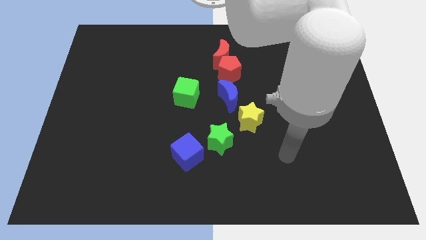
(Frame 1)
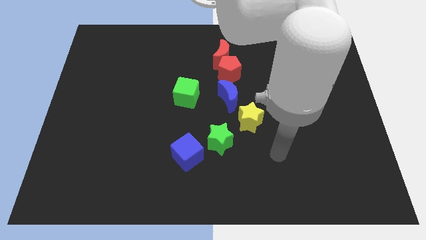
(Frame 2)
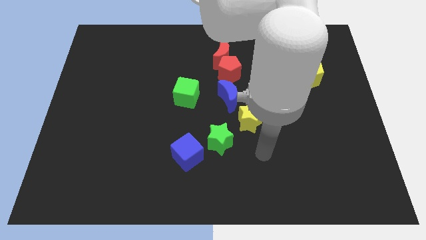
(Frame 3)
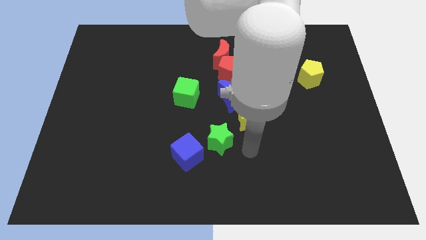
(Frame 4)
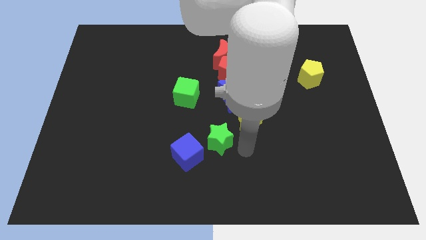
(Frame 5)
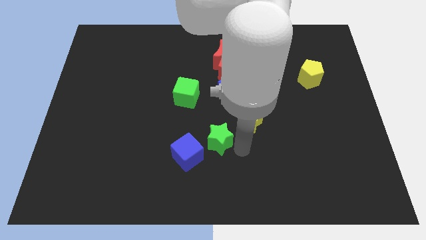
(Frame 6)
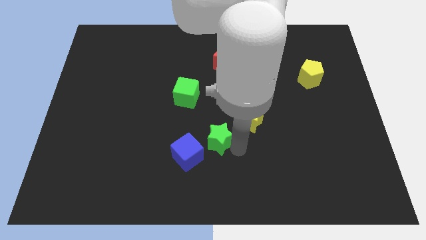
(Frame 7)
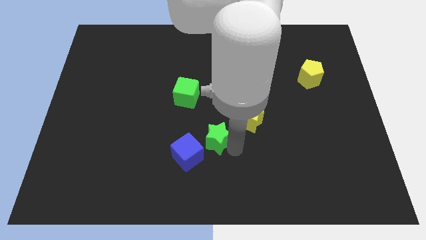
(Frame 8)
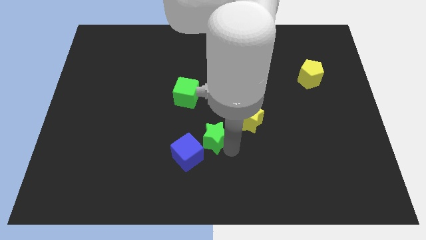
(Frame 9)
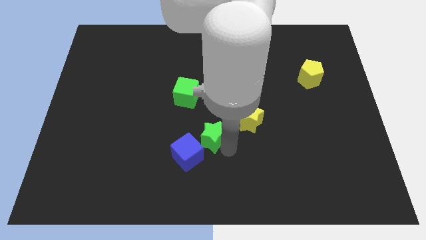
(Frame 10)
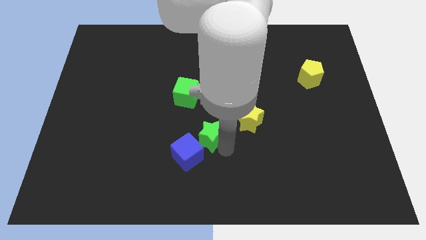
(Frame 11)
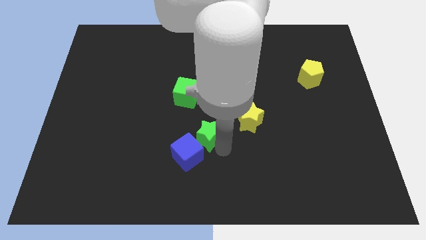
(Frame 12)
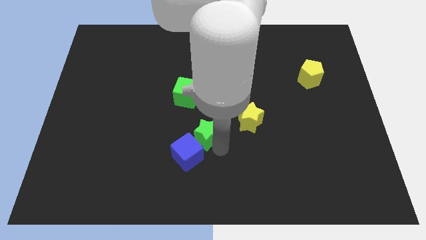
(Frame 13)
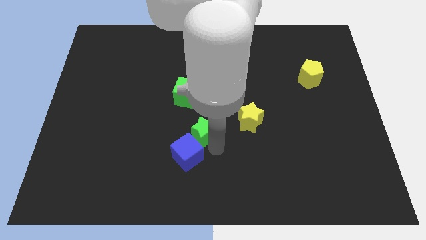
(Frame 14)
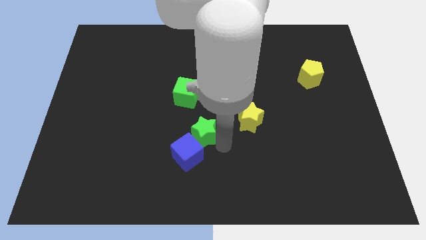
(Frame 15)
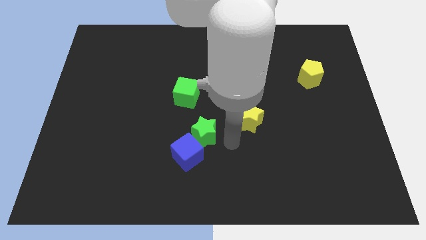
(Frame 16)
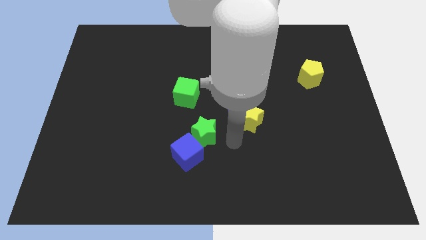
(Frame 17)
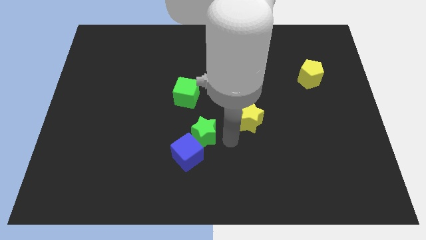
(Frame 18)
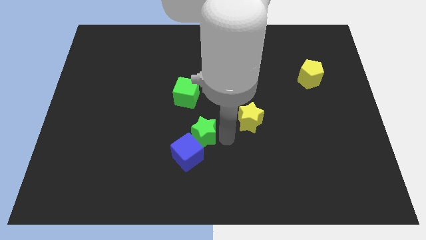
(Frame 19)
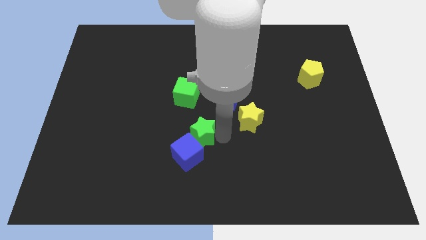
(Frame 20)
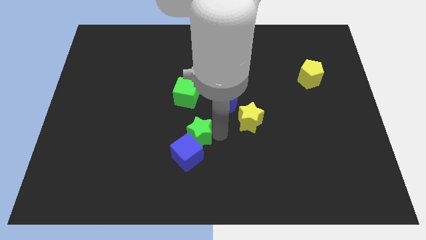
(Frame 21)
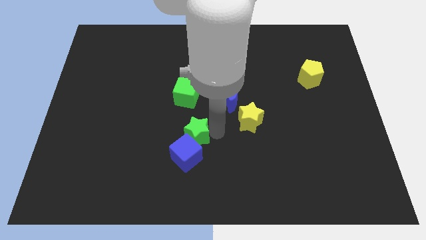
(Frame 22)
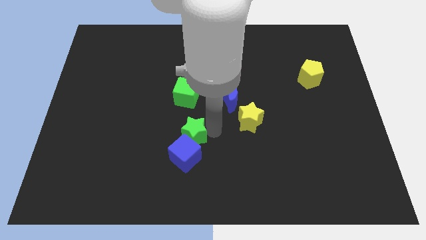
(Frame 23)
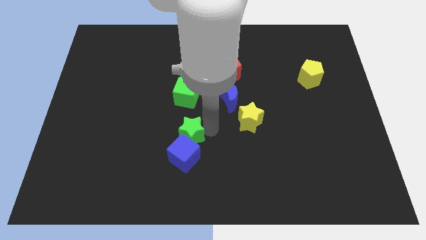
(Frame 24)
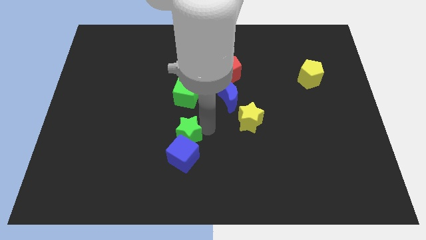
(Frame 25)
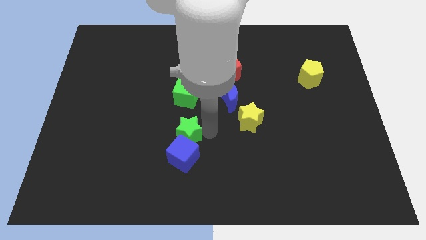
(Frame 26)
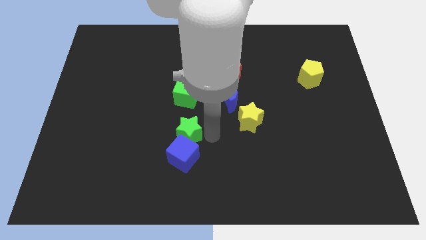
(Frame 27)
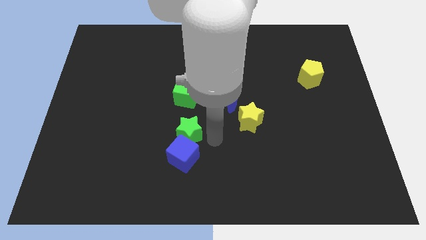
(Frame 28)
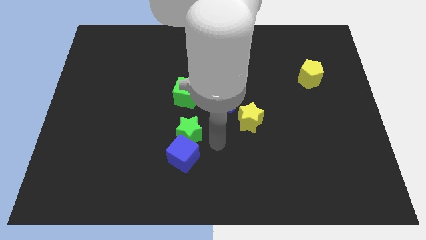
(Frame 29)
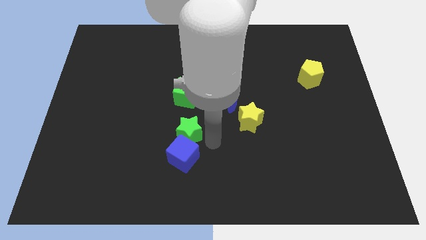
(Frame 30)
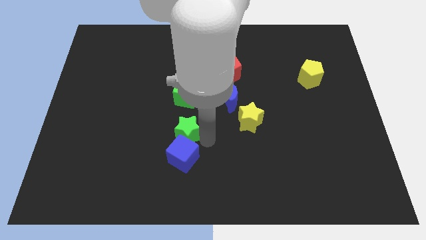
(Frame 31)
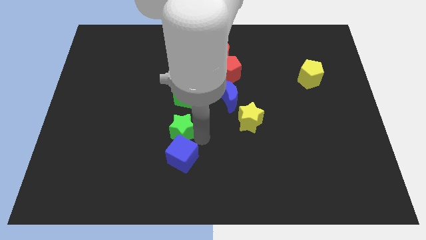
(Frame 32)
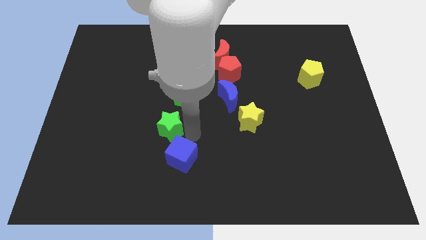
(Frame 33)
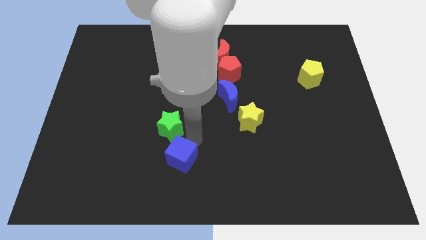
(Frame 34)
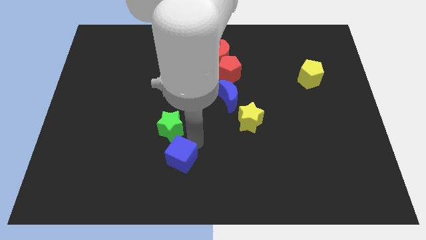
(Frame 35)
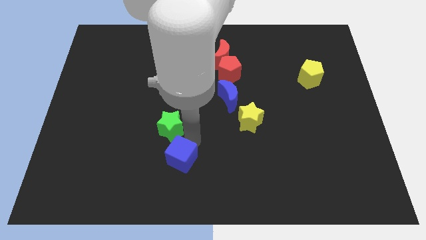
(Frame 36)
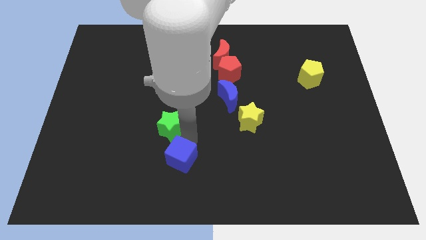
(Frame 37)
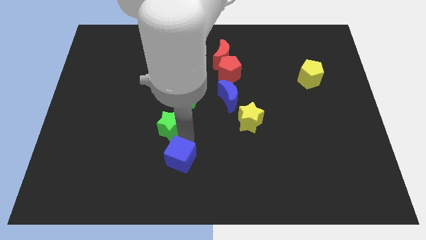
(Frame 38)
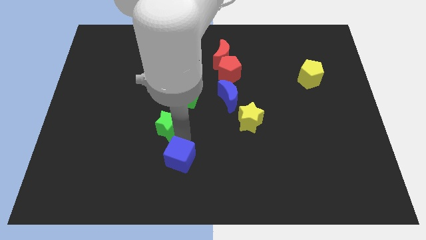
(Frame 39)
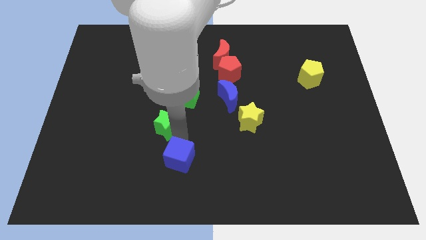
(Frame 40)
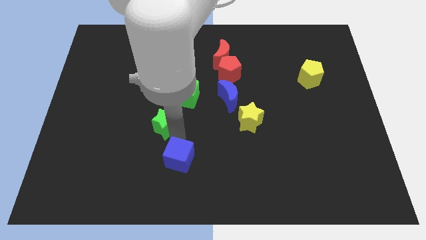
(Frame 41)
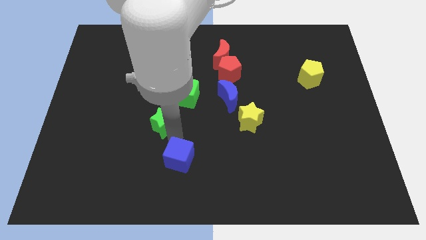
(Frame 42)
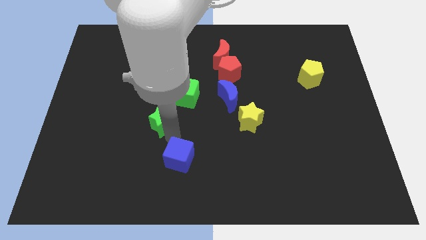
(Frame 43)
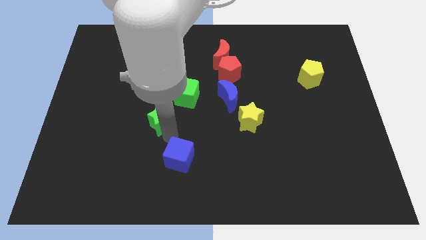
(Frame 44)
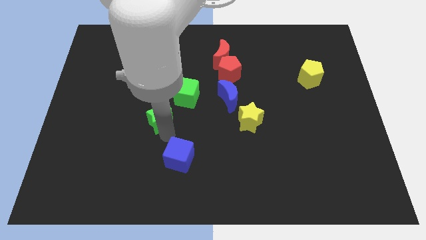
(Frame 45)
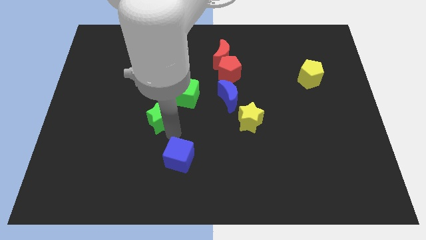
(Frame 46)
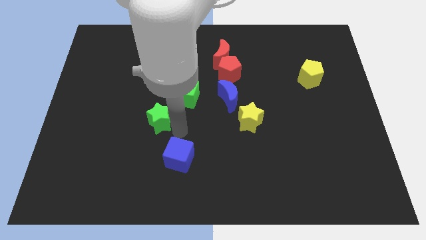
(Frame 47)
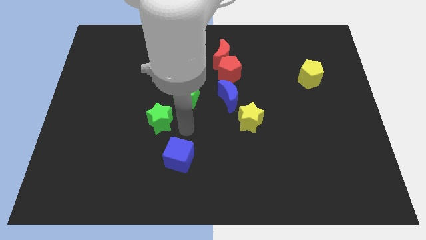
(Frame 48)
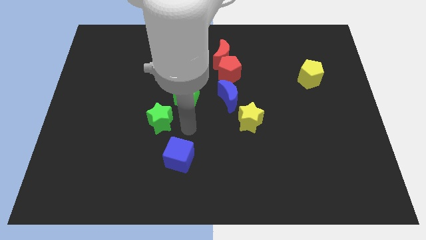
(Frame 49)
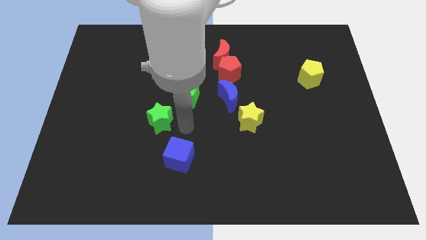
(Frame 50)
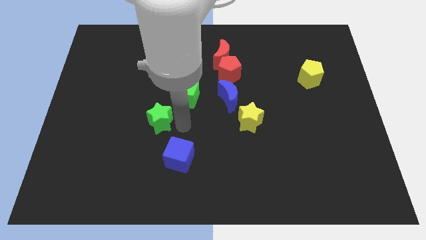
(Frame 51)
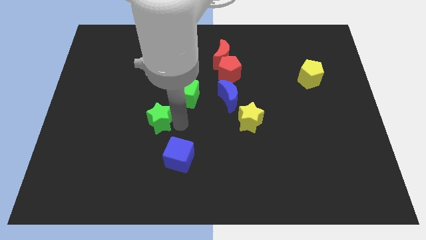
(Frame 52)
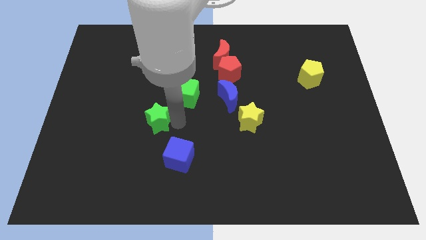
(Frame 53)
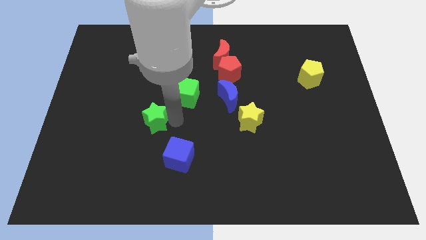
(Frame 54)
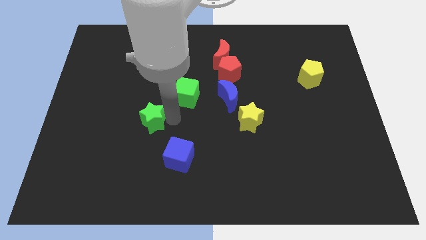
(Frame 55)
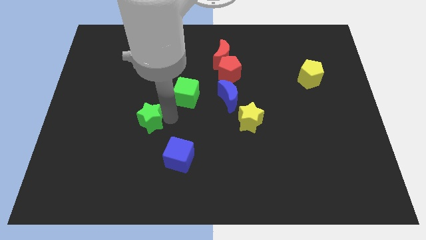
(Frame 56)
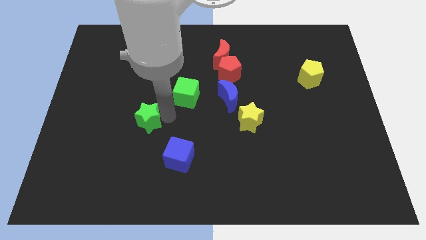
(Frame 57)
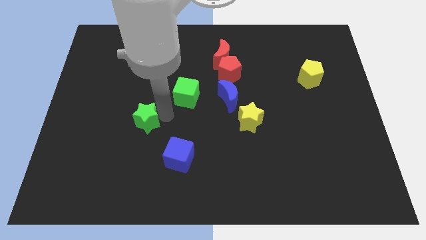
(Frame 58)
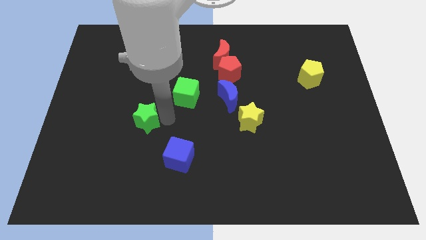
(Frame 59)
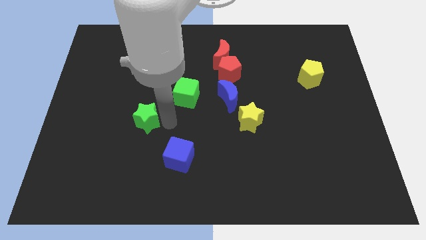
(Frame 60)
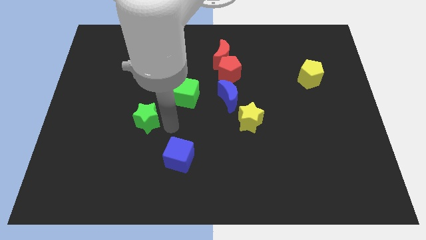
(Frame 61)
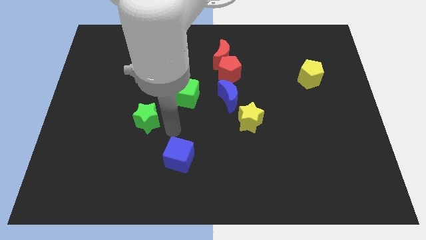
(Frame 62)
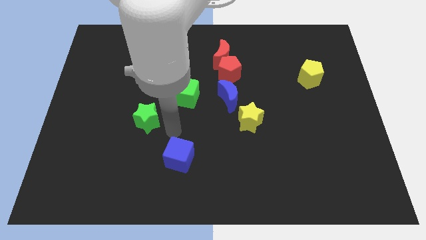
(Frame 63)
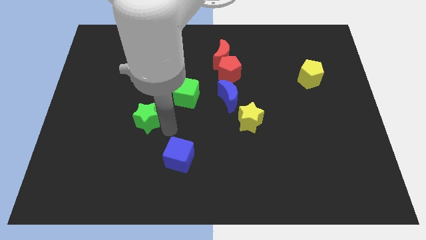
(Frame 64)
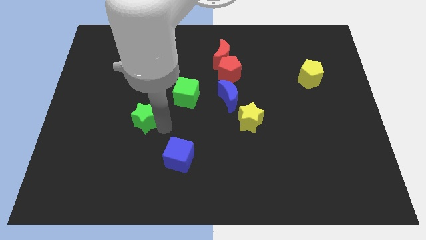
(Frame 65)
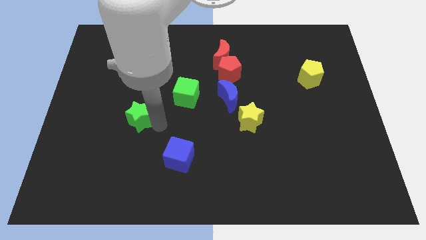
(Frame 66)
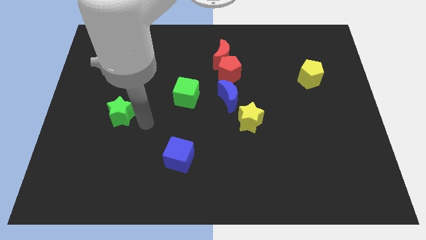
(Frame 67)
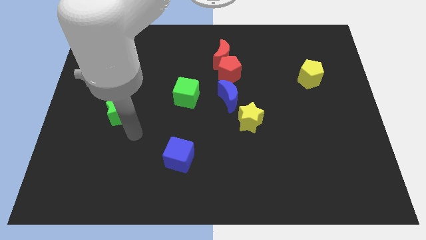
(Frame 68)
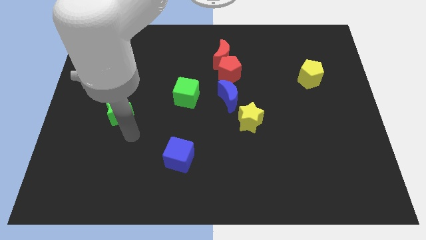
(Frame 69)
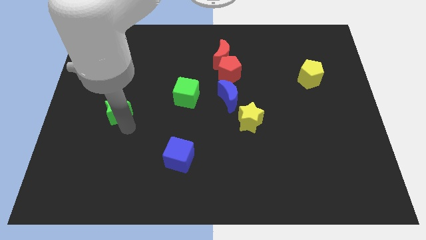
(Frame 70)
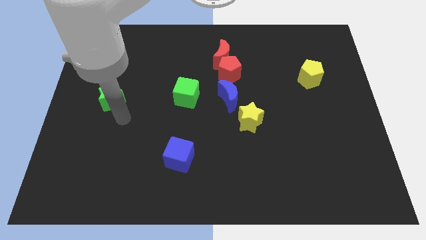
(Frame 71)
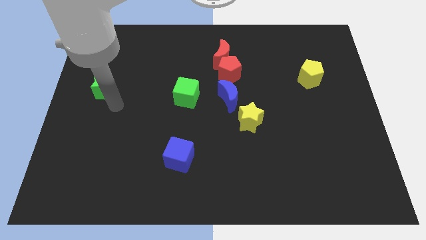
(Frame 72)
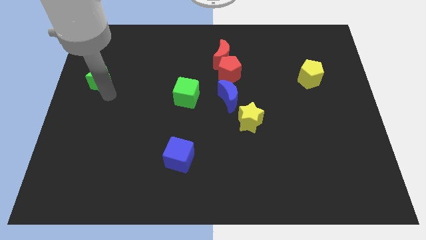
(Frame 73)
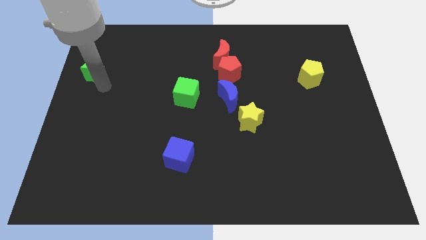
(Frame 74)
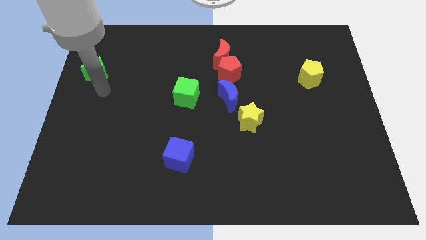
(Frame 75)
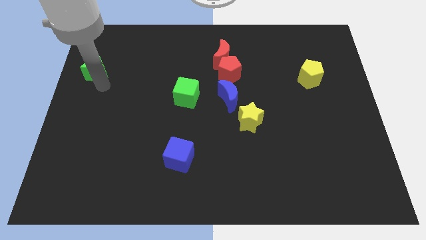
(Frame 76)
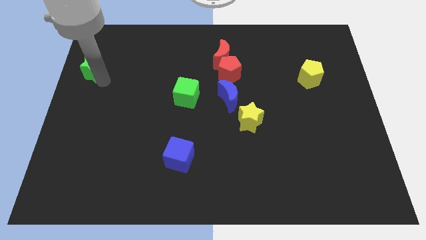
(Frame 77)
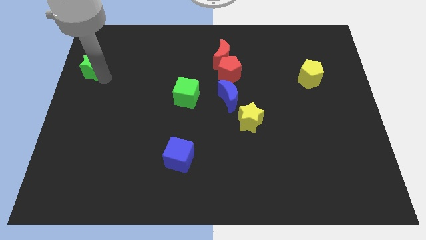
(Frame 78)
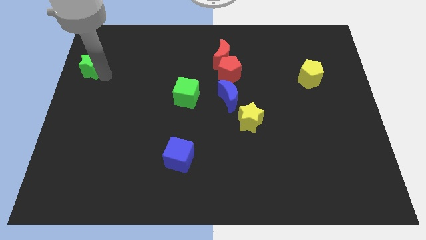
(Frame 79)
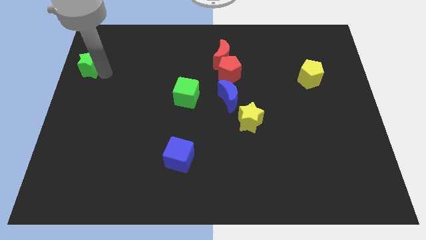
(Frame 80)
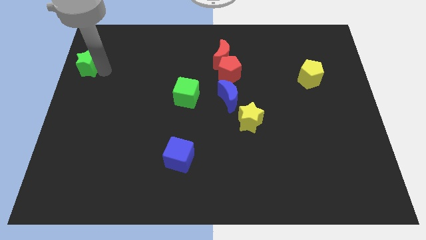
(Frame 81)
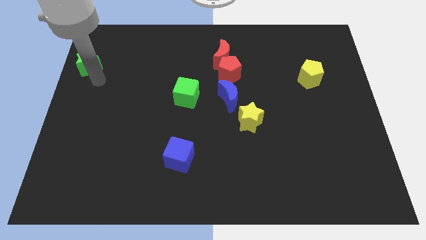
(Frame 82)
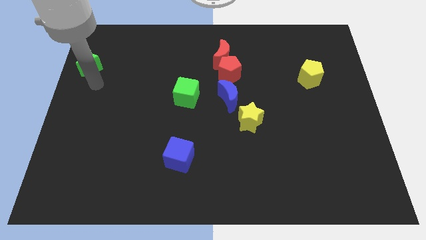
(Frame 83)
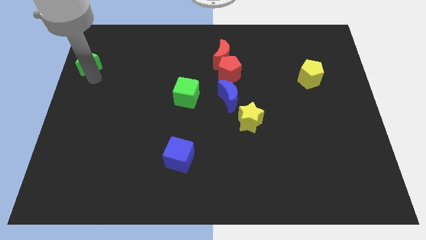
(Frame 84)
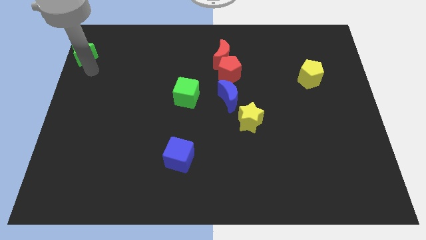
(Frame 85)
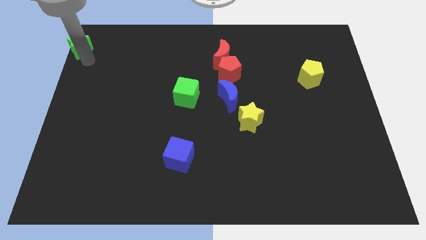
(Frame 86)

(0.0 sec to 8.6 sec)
put the green star to the top left
